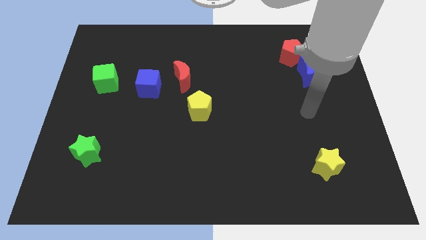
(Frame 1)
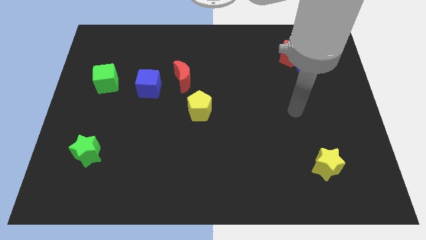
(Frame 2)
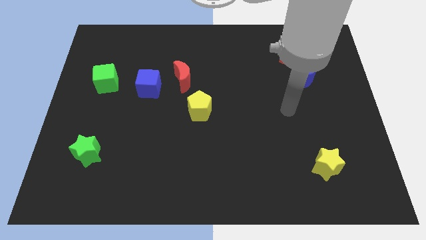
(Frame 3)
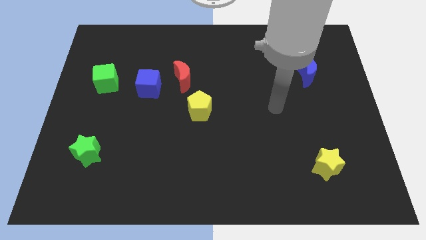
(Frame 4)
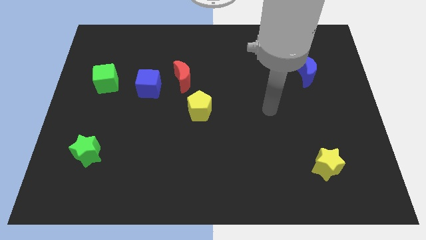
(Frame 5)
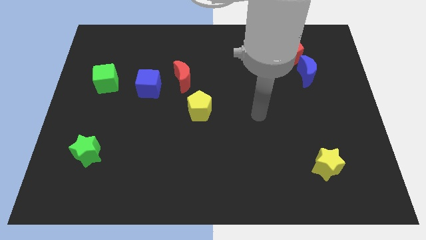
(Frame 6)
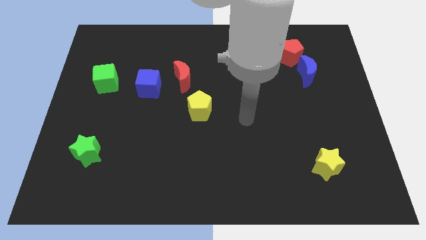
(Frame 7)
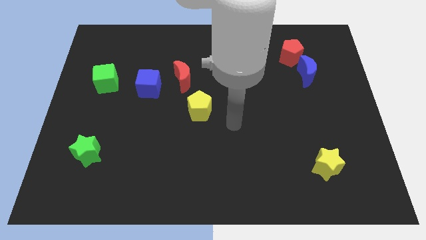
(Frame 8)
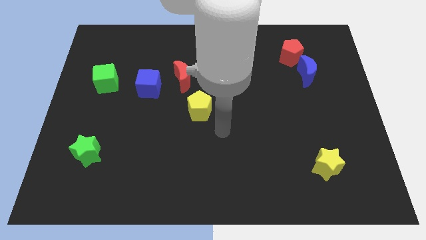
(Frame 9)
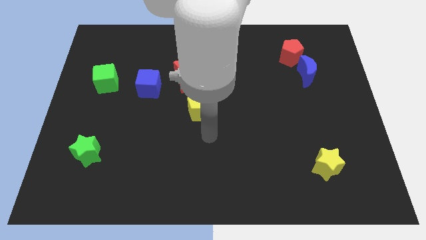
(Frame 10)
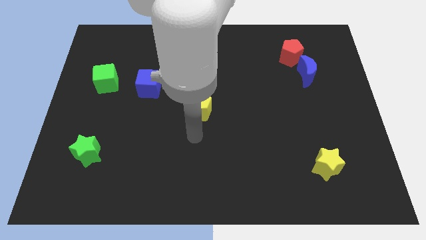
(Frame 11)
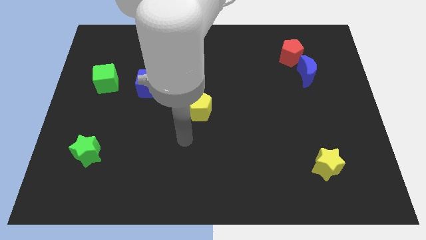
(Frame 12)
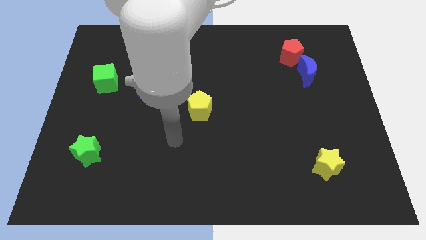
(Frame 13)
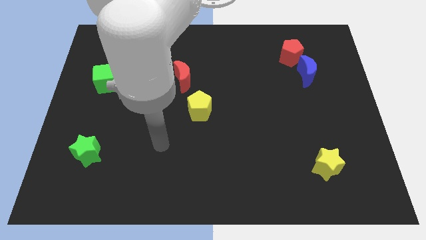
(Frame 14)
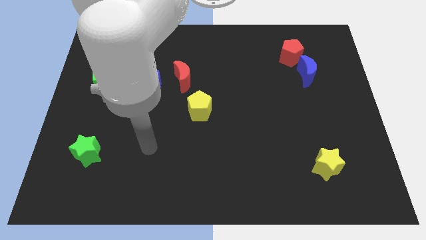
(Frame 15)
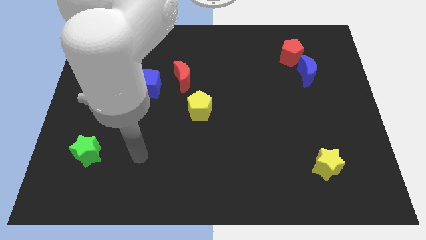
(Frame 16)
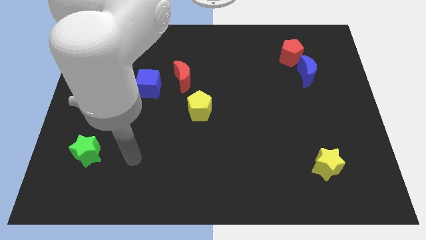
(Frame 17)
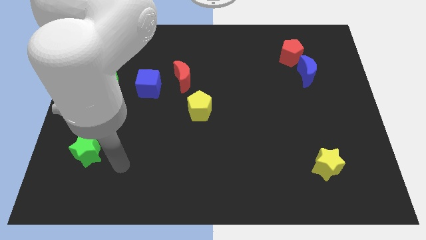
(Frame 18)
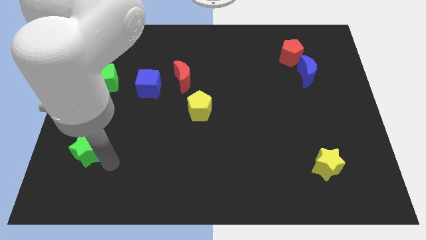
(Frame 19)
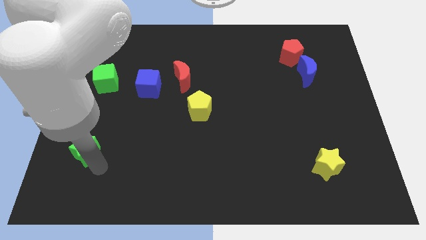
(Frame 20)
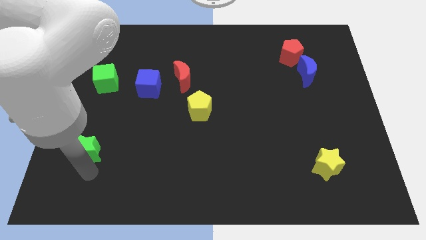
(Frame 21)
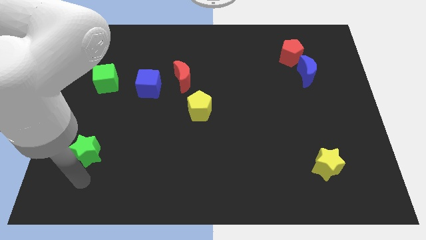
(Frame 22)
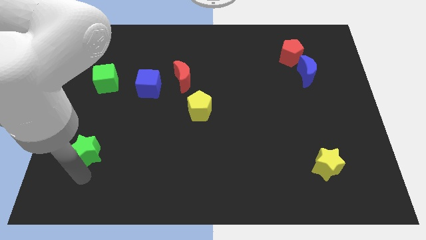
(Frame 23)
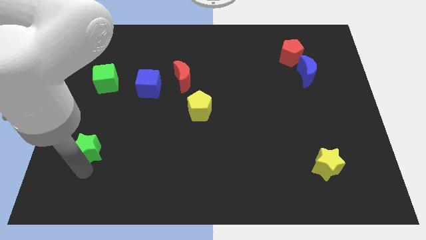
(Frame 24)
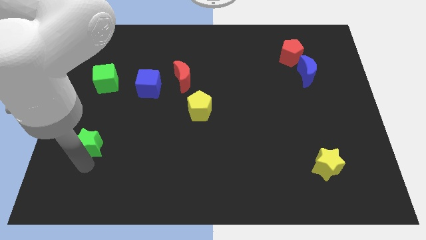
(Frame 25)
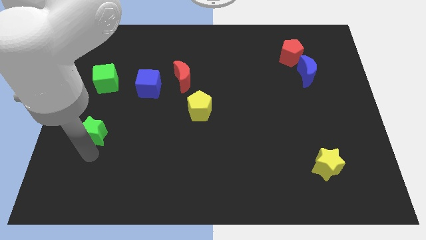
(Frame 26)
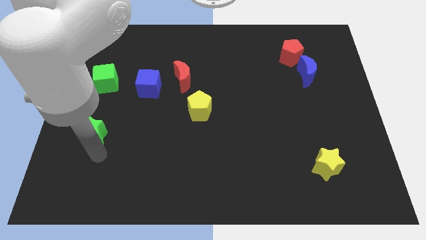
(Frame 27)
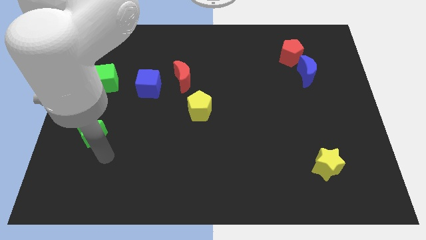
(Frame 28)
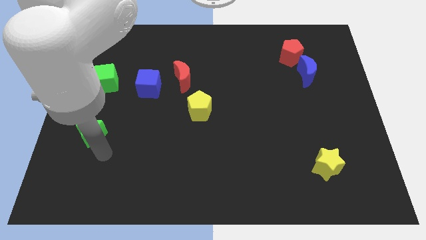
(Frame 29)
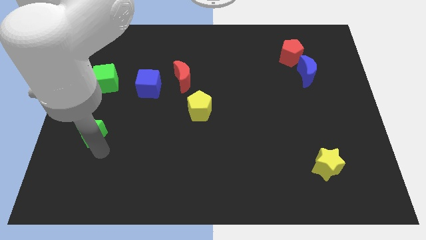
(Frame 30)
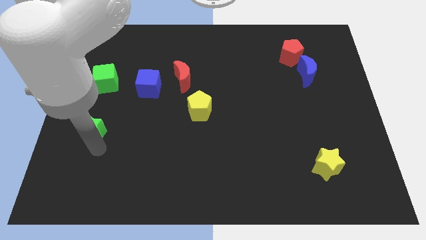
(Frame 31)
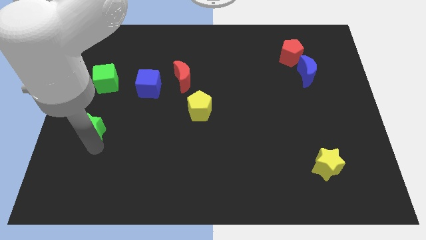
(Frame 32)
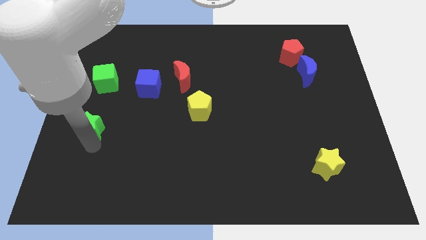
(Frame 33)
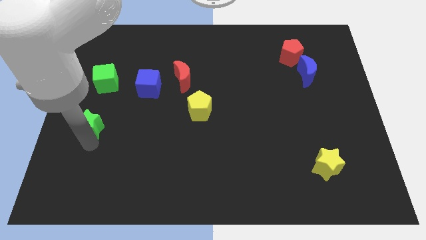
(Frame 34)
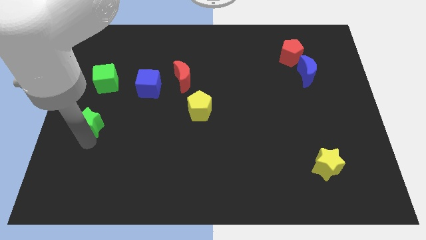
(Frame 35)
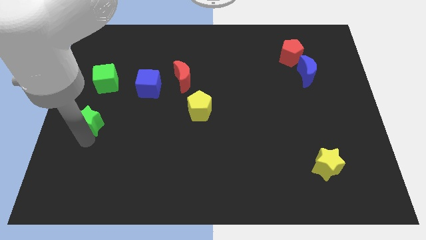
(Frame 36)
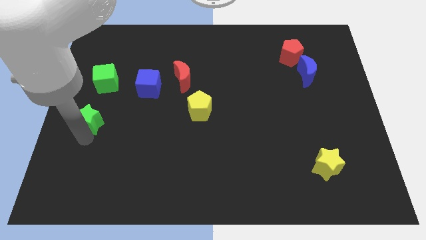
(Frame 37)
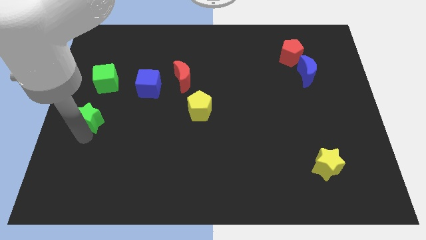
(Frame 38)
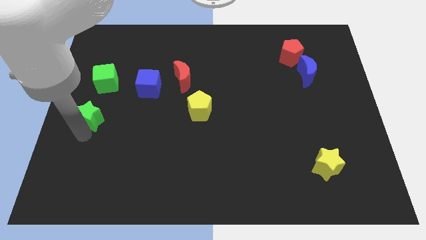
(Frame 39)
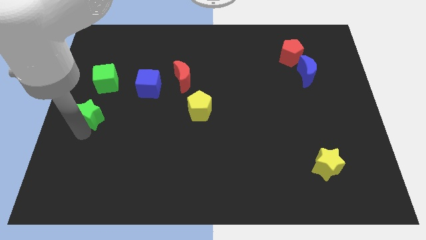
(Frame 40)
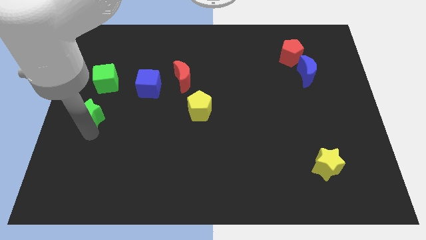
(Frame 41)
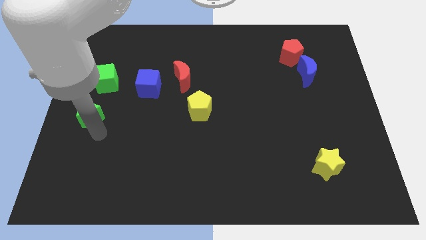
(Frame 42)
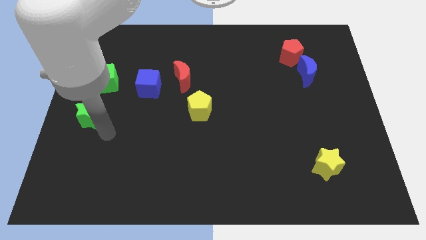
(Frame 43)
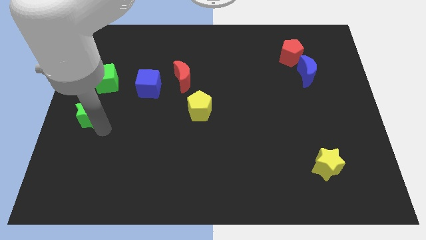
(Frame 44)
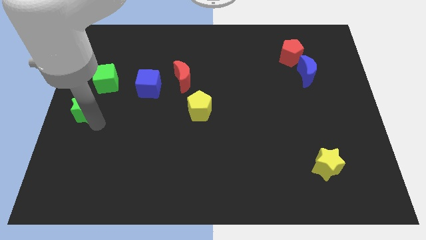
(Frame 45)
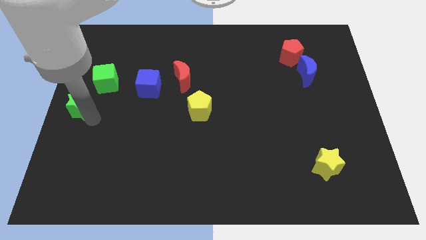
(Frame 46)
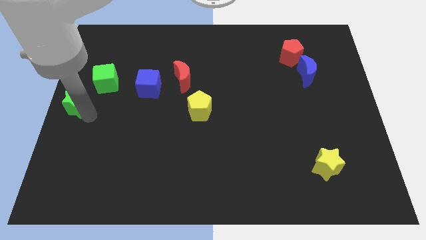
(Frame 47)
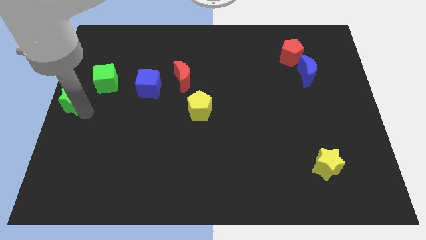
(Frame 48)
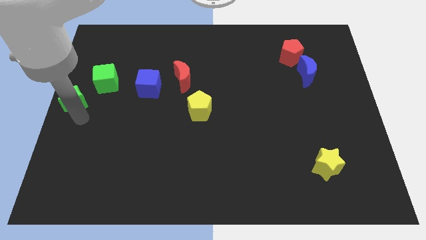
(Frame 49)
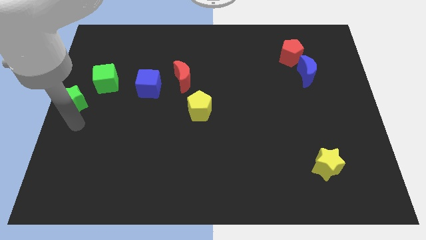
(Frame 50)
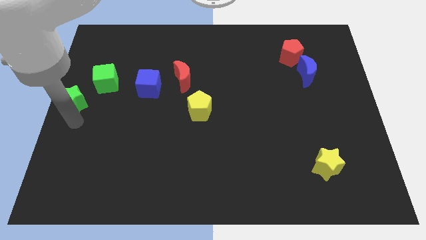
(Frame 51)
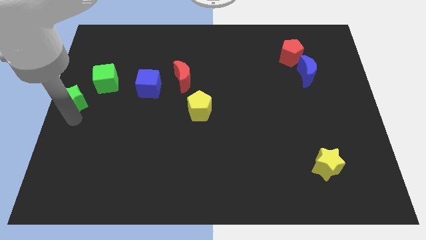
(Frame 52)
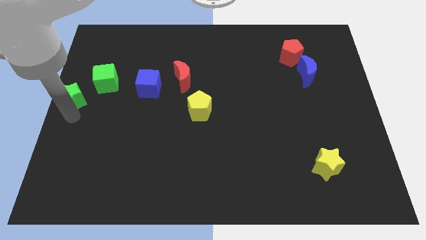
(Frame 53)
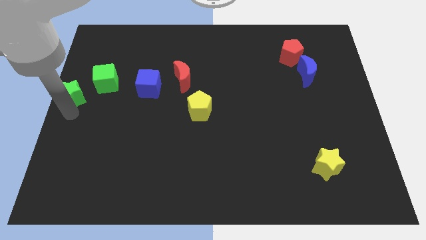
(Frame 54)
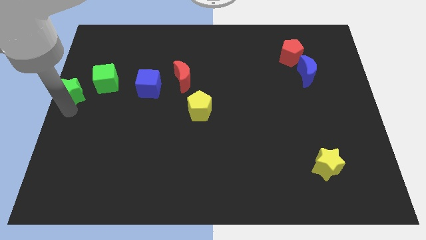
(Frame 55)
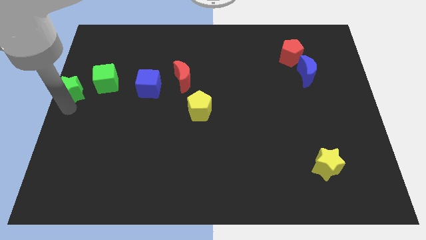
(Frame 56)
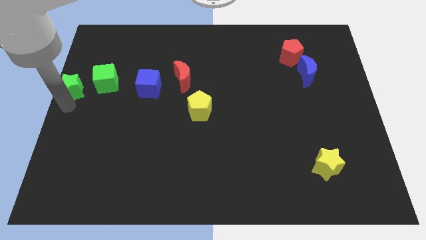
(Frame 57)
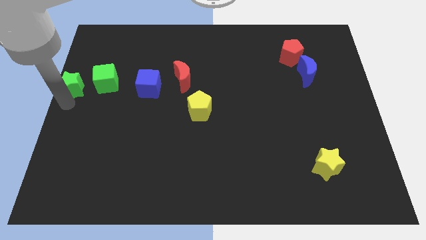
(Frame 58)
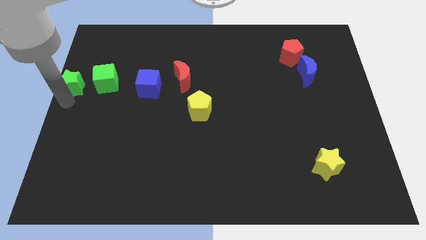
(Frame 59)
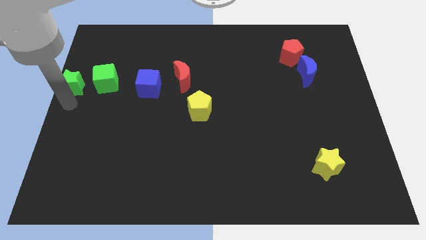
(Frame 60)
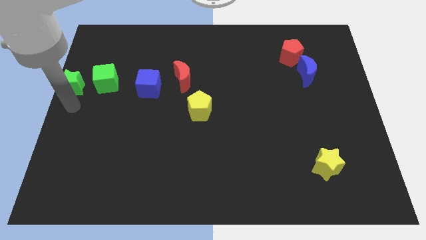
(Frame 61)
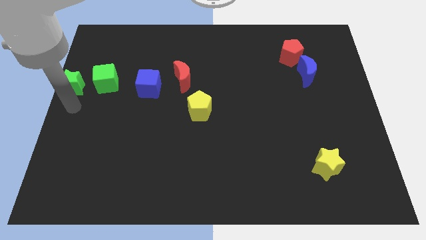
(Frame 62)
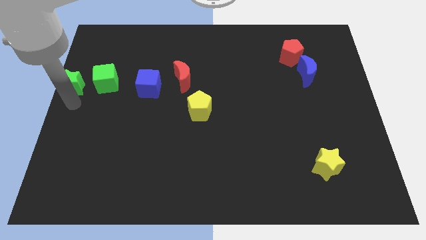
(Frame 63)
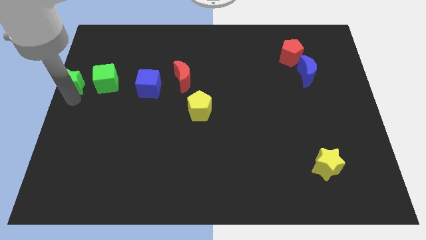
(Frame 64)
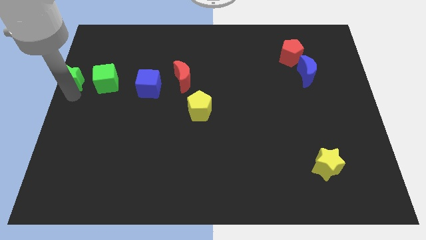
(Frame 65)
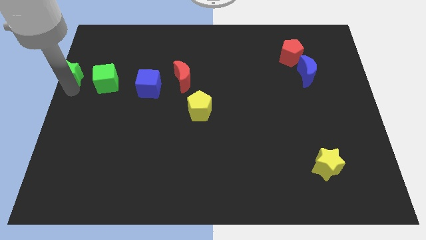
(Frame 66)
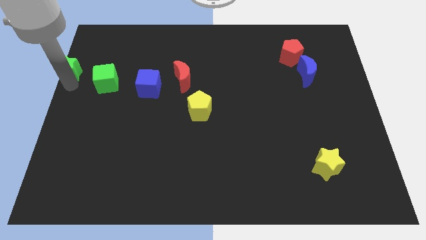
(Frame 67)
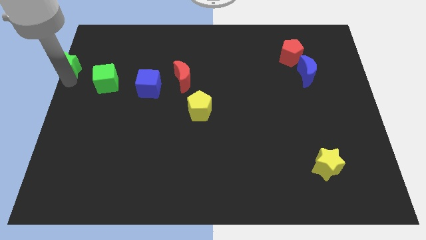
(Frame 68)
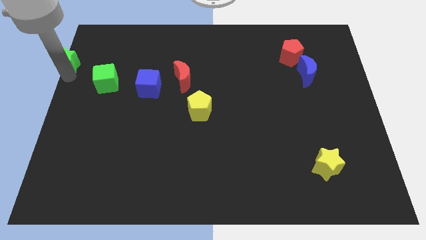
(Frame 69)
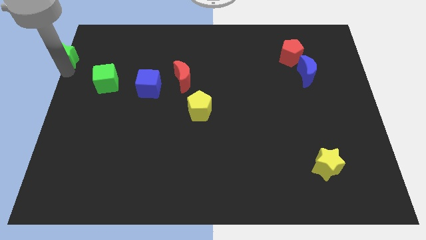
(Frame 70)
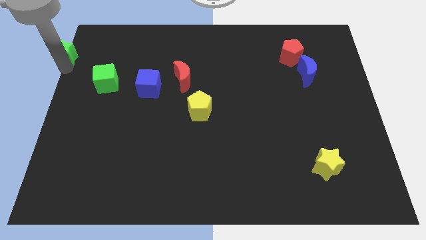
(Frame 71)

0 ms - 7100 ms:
move the green star to the upper left corner
